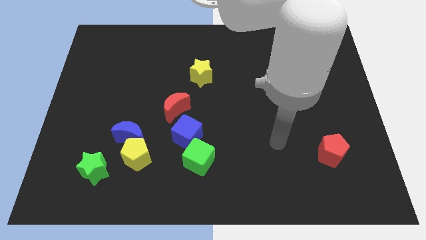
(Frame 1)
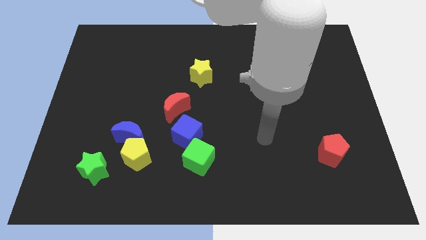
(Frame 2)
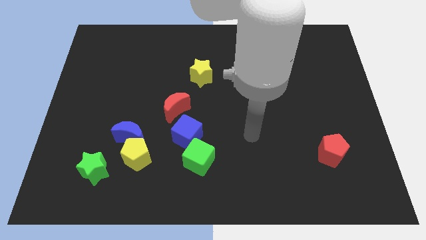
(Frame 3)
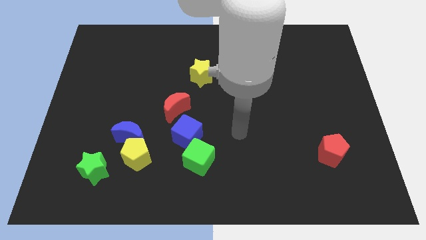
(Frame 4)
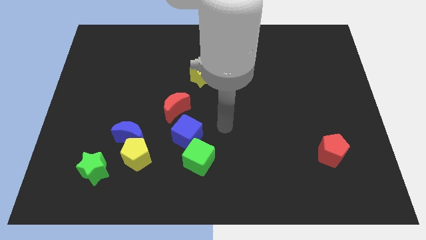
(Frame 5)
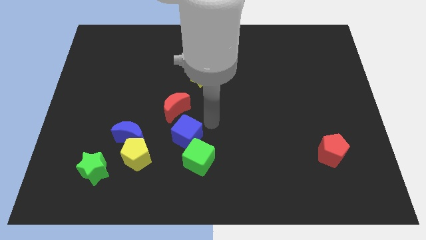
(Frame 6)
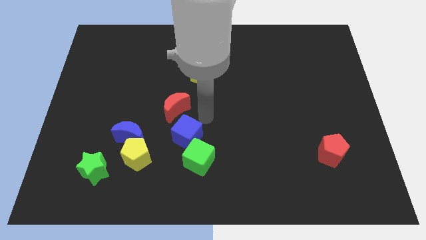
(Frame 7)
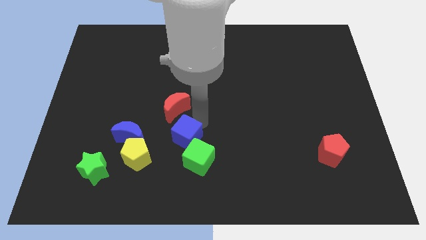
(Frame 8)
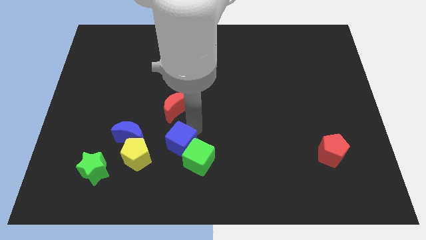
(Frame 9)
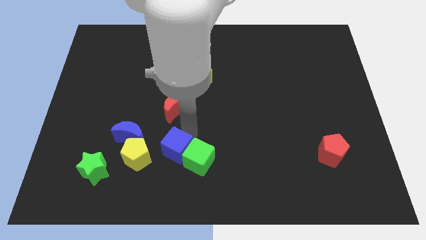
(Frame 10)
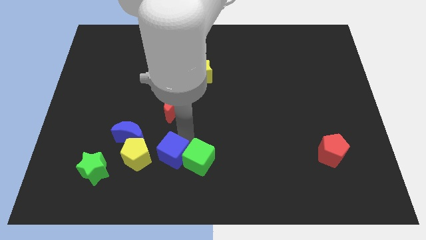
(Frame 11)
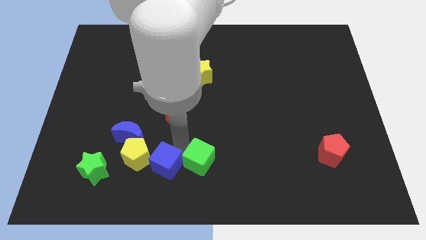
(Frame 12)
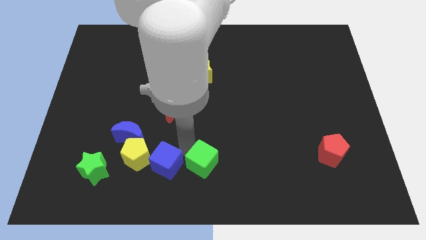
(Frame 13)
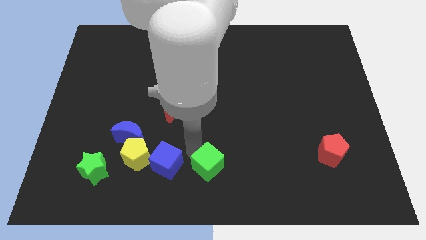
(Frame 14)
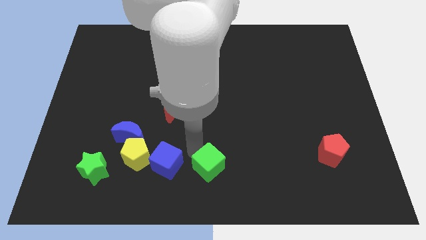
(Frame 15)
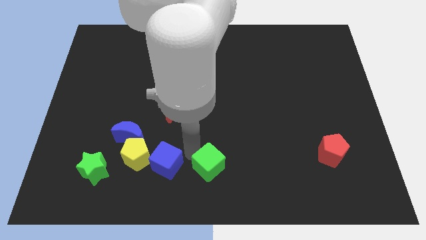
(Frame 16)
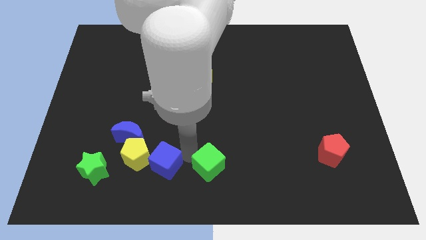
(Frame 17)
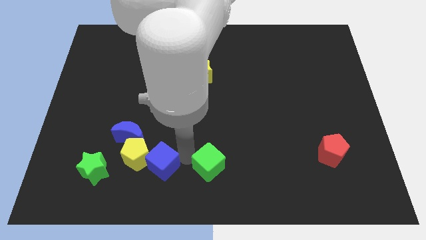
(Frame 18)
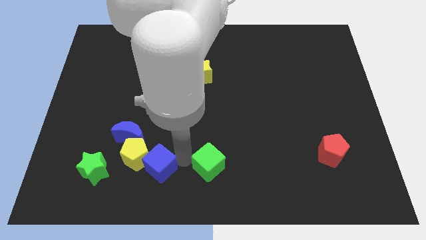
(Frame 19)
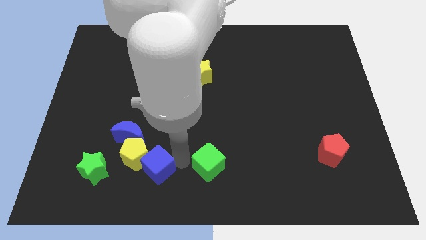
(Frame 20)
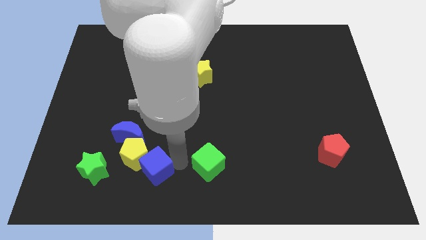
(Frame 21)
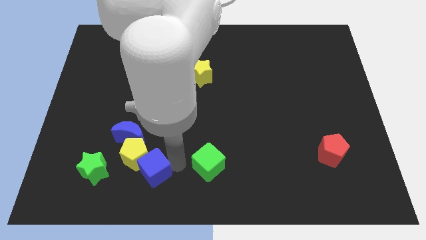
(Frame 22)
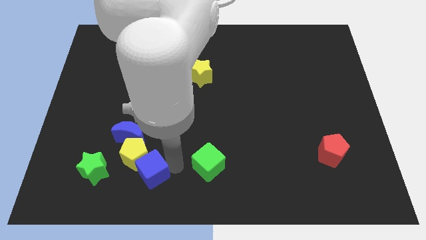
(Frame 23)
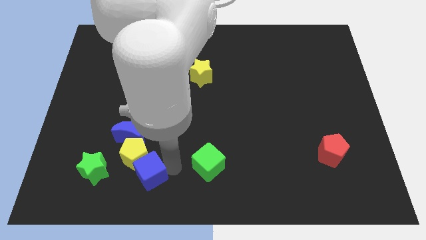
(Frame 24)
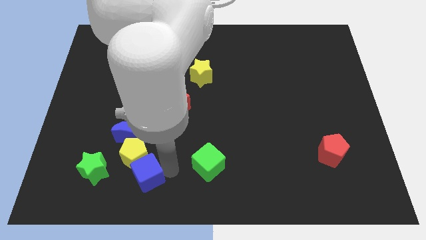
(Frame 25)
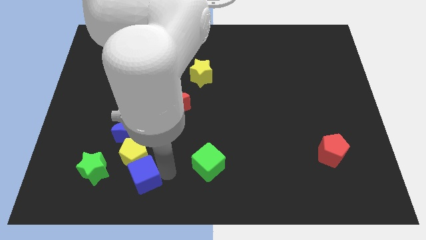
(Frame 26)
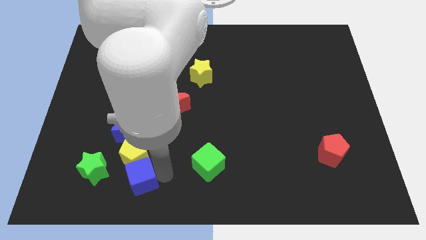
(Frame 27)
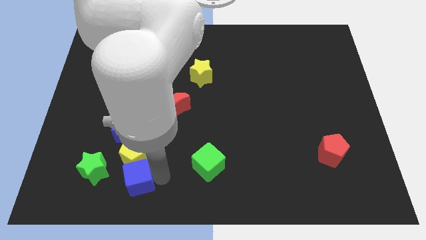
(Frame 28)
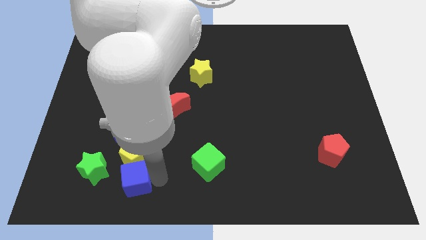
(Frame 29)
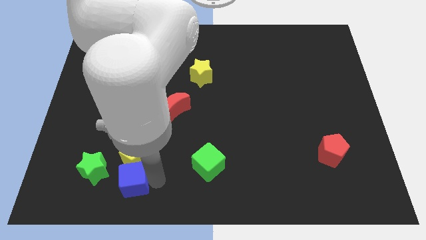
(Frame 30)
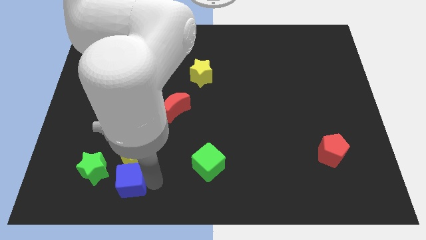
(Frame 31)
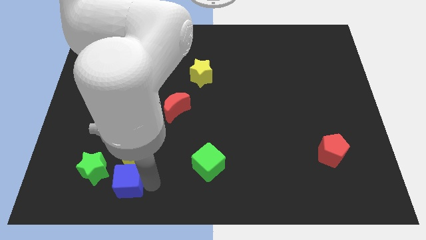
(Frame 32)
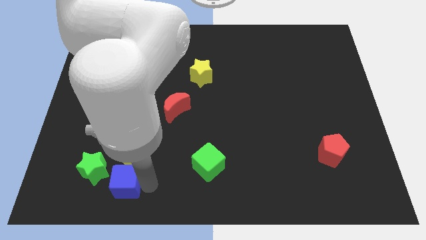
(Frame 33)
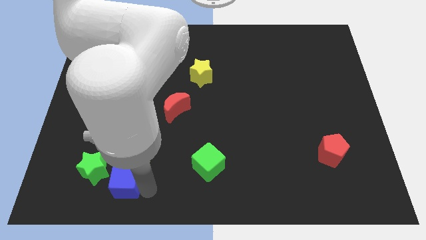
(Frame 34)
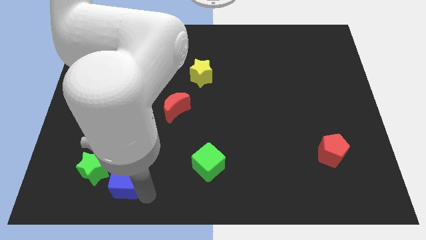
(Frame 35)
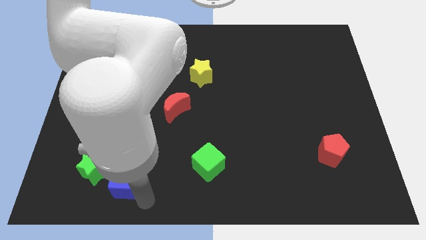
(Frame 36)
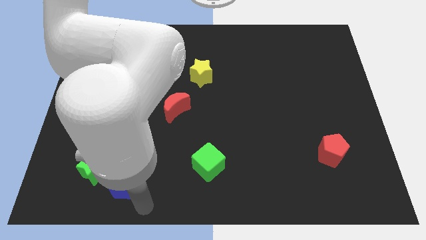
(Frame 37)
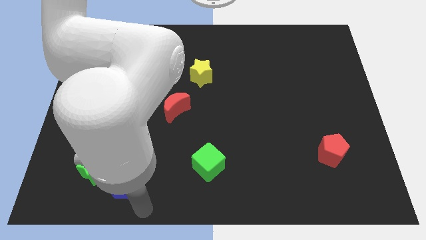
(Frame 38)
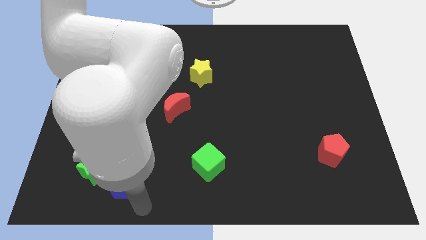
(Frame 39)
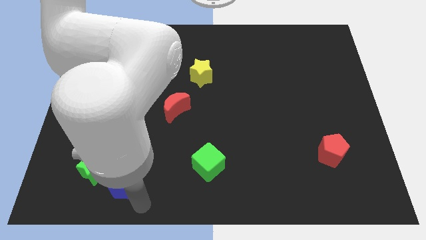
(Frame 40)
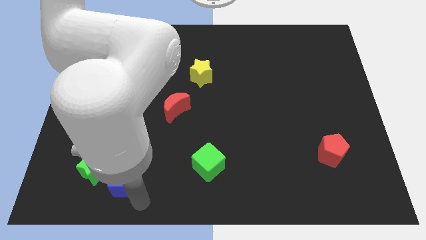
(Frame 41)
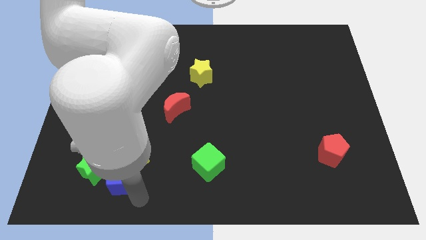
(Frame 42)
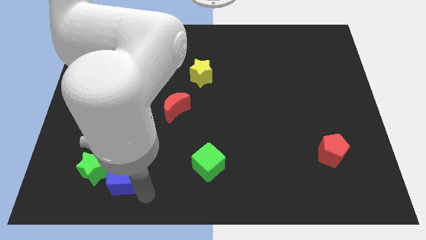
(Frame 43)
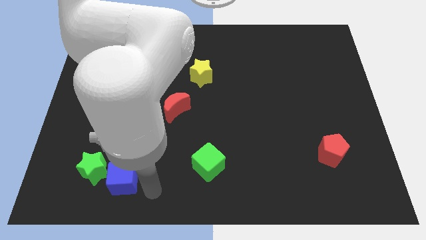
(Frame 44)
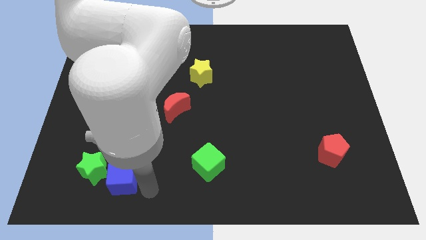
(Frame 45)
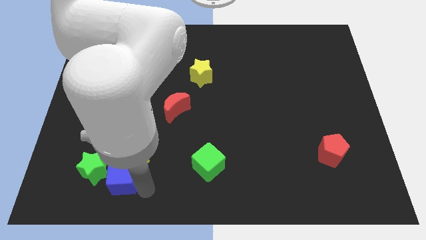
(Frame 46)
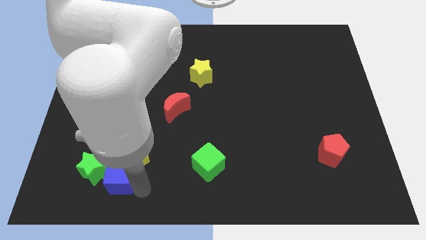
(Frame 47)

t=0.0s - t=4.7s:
push the blue cube to the green star

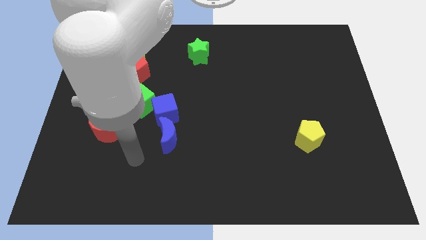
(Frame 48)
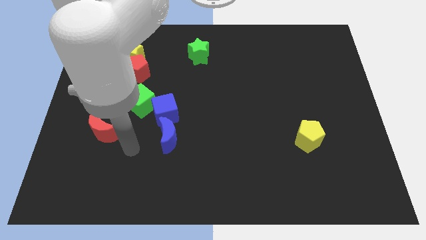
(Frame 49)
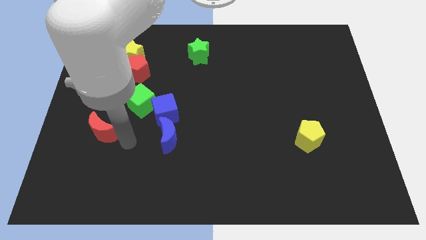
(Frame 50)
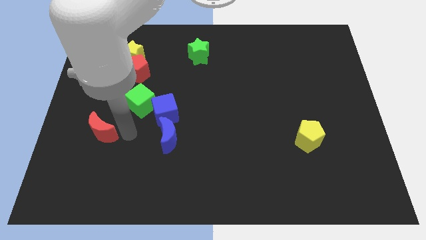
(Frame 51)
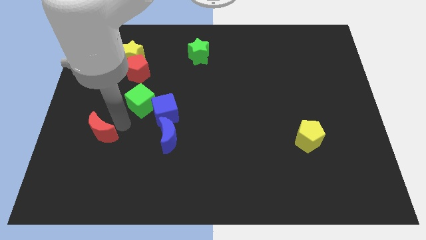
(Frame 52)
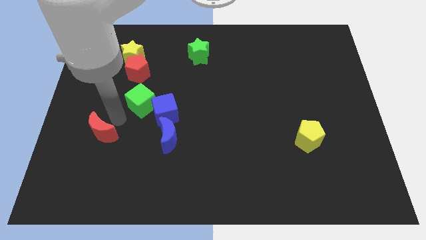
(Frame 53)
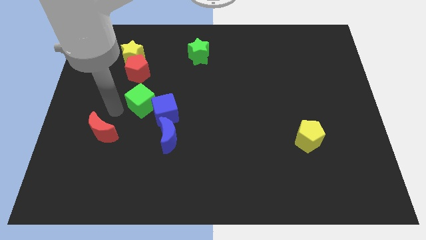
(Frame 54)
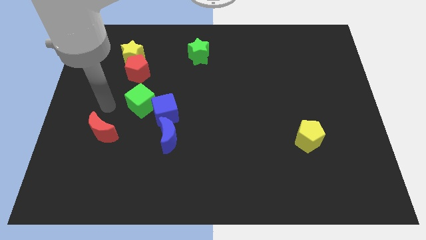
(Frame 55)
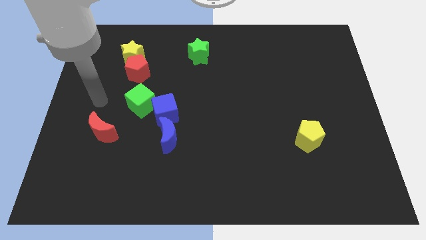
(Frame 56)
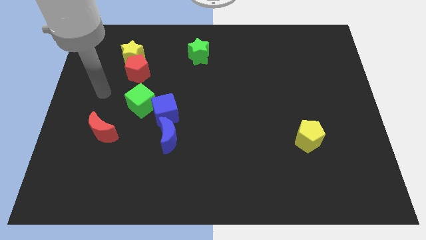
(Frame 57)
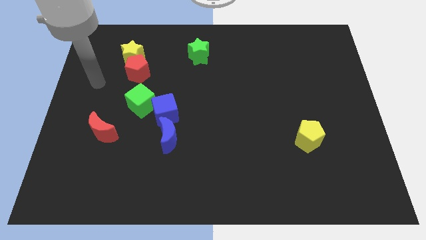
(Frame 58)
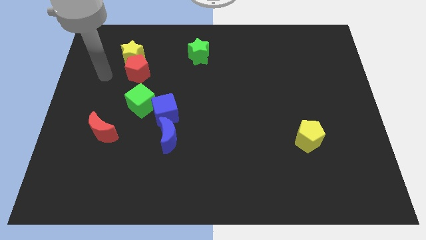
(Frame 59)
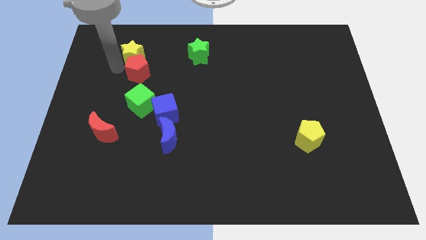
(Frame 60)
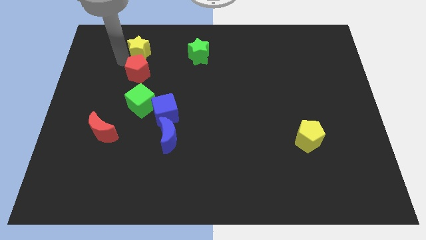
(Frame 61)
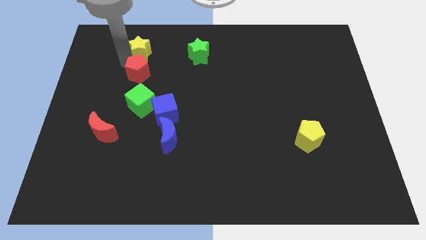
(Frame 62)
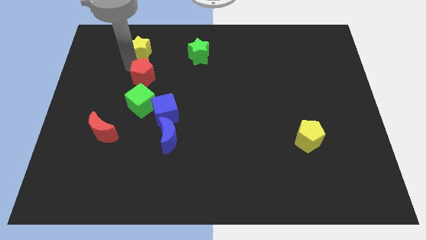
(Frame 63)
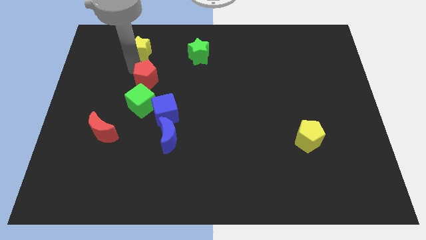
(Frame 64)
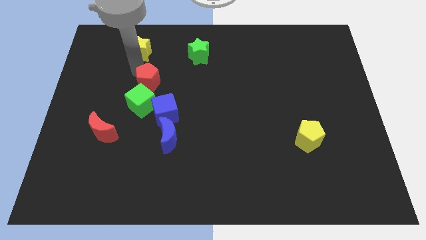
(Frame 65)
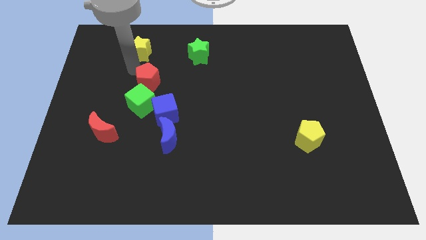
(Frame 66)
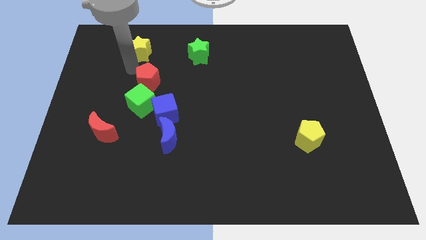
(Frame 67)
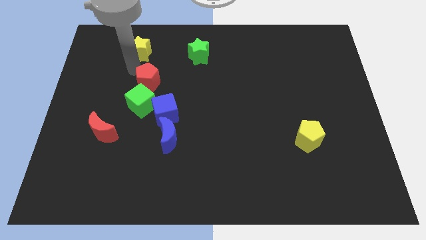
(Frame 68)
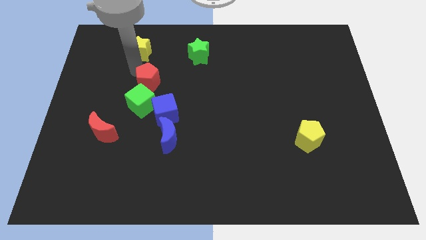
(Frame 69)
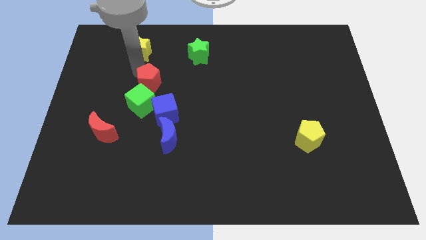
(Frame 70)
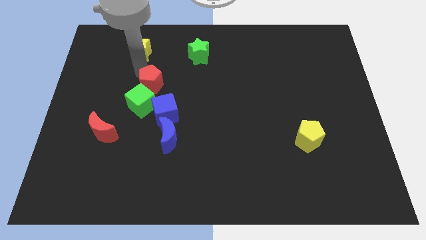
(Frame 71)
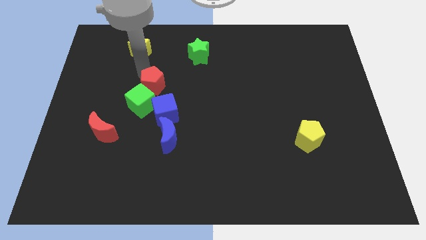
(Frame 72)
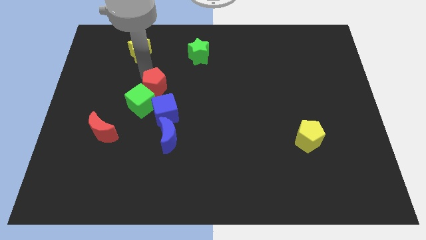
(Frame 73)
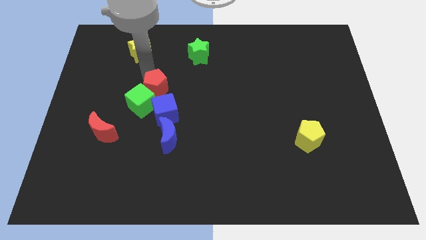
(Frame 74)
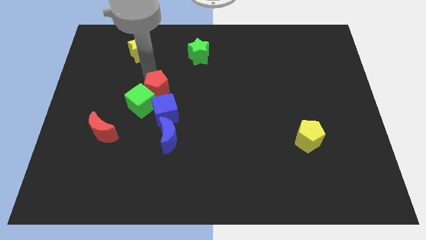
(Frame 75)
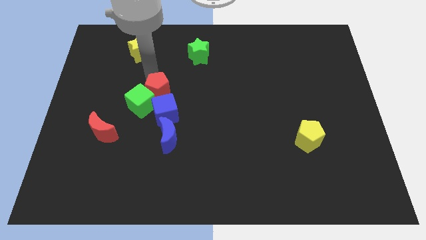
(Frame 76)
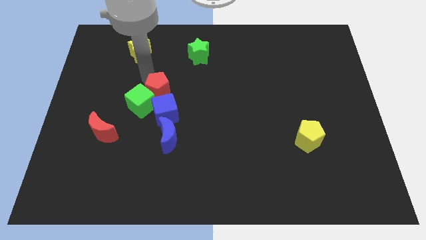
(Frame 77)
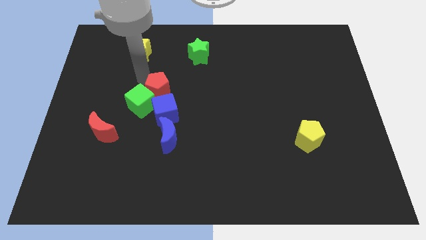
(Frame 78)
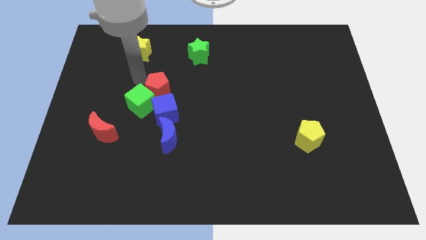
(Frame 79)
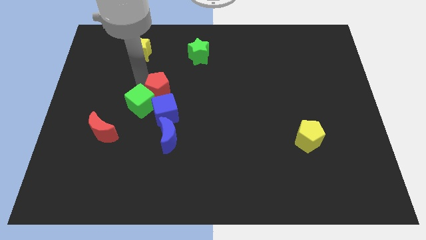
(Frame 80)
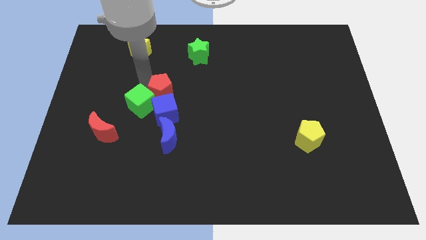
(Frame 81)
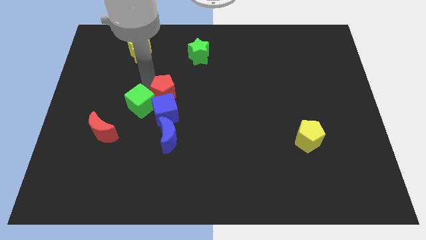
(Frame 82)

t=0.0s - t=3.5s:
push the red pentagon close to the blue cube

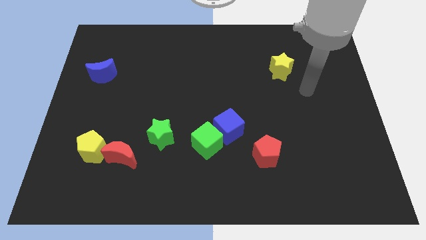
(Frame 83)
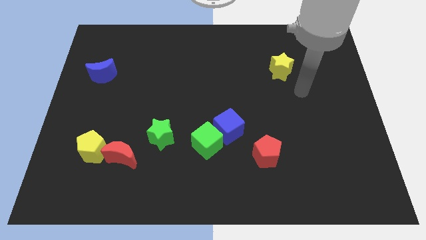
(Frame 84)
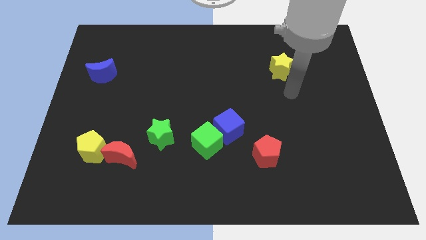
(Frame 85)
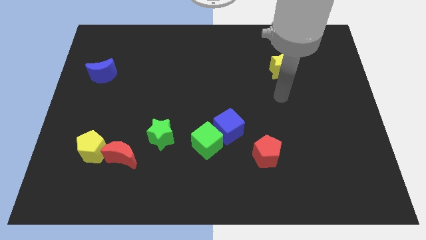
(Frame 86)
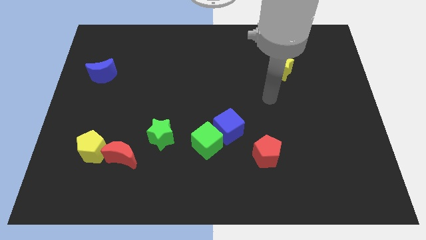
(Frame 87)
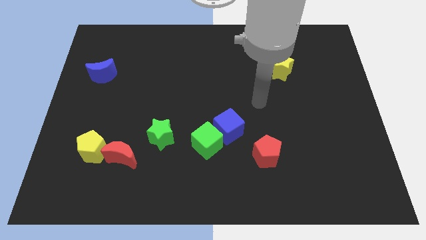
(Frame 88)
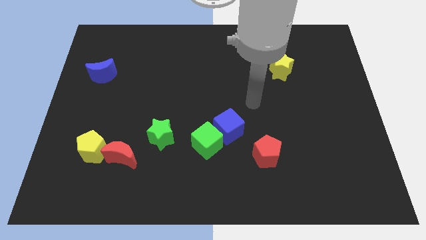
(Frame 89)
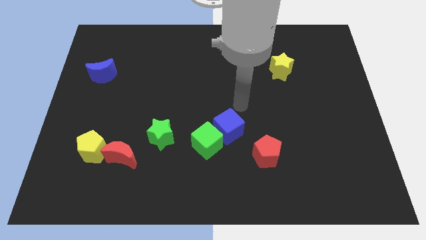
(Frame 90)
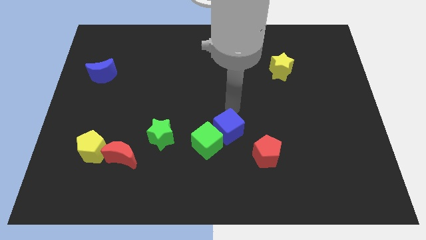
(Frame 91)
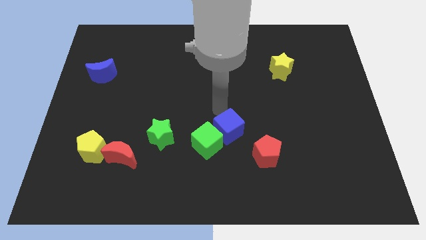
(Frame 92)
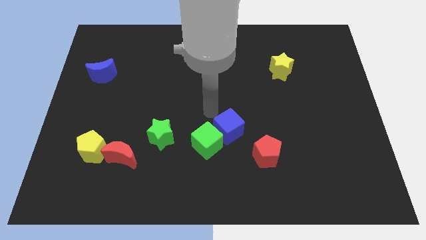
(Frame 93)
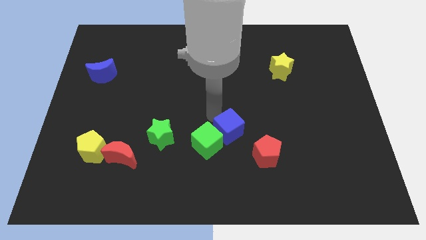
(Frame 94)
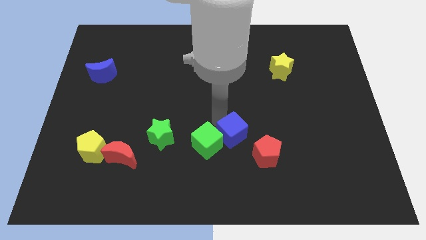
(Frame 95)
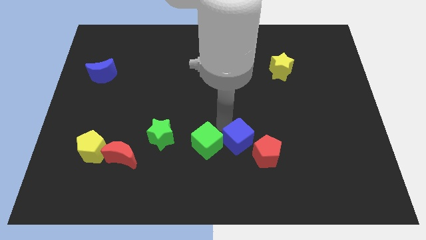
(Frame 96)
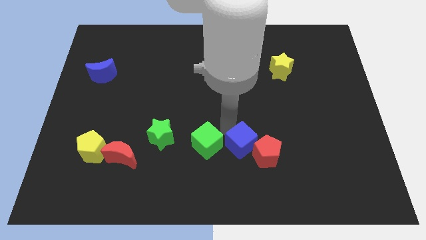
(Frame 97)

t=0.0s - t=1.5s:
push the blue cube to the red pentagon
